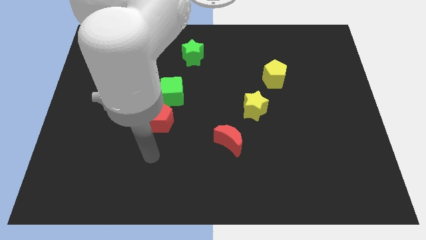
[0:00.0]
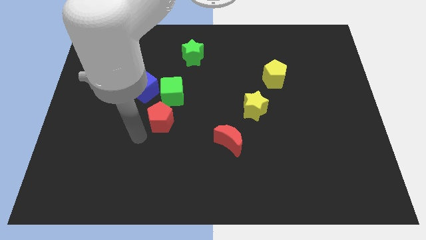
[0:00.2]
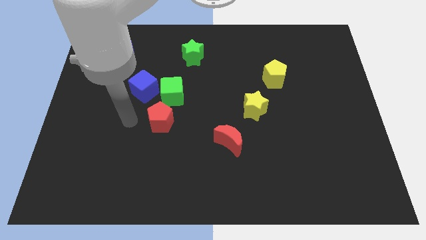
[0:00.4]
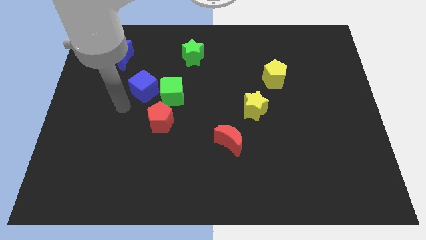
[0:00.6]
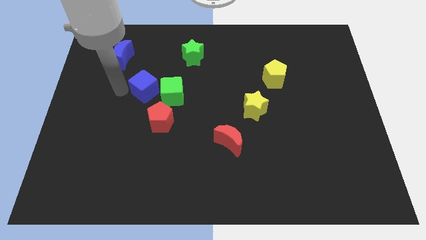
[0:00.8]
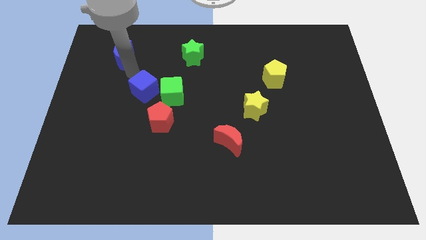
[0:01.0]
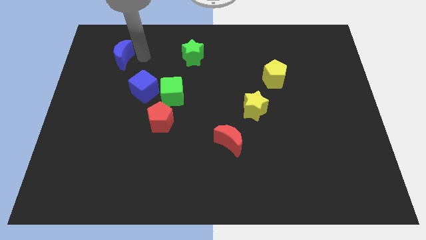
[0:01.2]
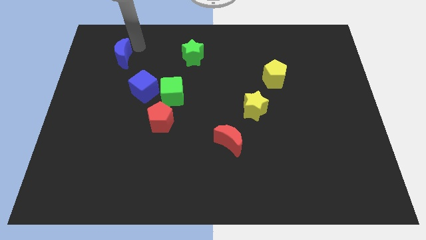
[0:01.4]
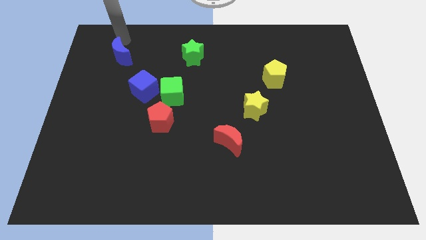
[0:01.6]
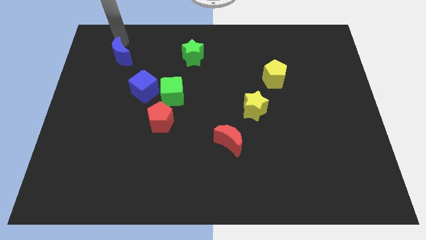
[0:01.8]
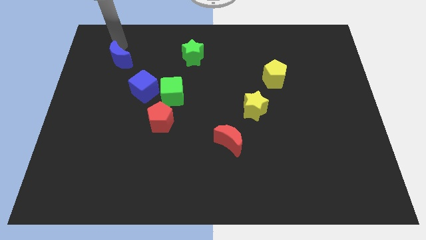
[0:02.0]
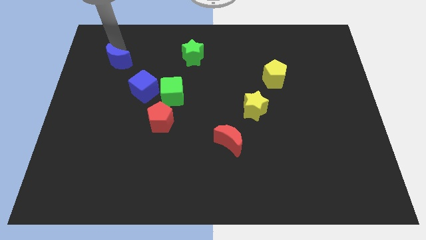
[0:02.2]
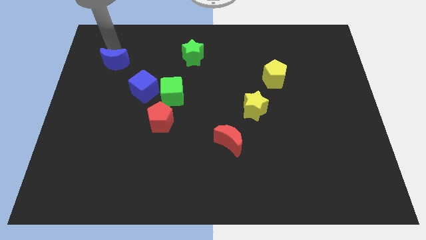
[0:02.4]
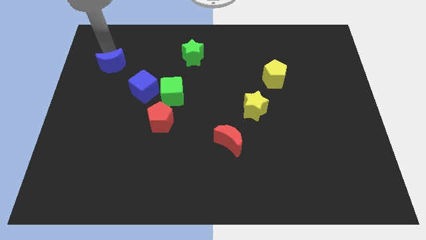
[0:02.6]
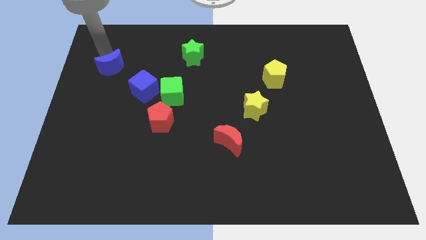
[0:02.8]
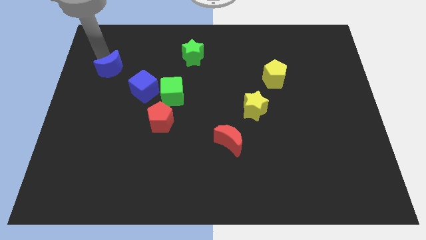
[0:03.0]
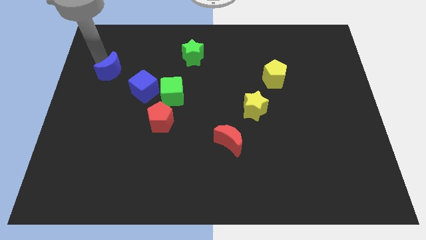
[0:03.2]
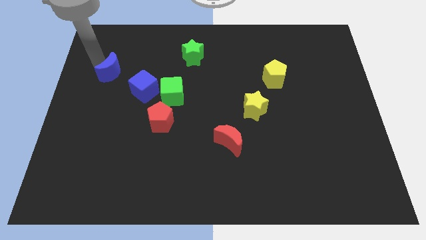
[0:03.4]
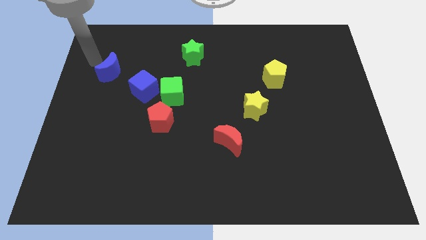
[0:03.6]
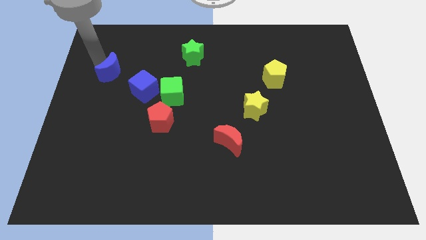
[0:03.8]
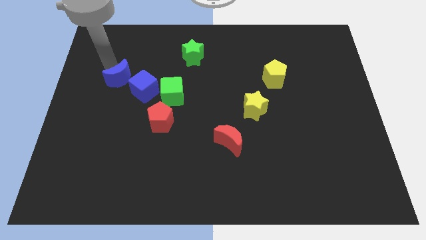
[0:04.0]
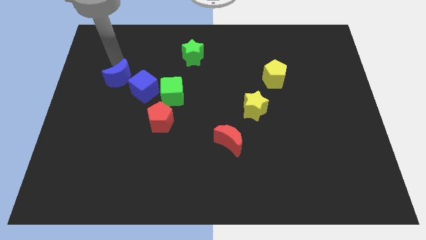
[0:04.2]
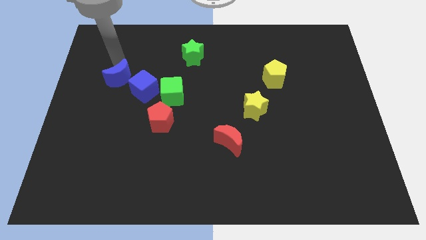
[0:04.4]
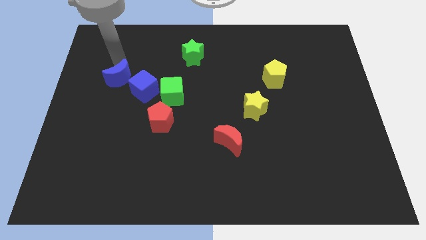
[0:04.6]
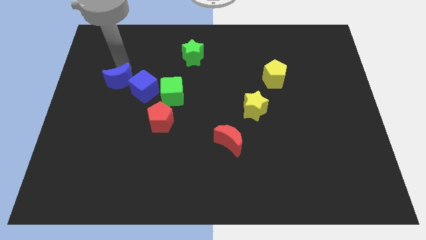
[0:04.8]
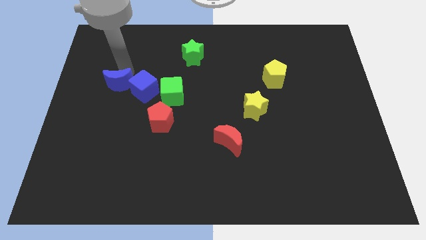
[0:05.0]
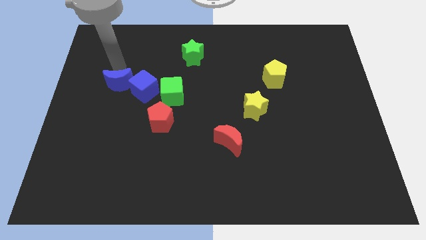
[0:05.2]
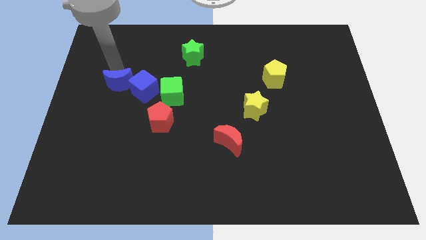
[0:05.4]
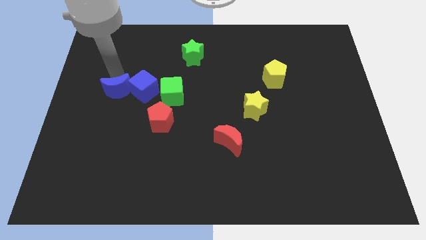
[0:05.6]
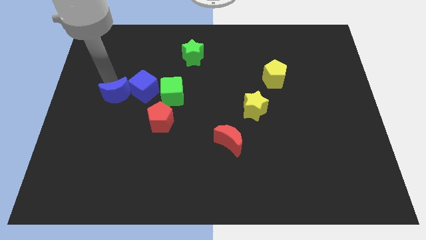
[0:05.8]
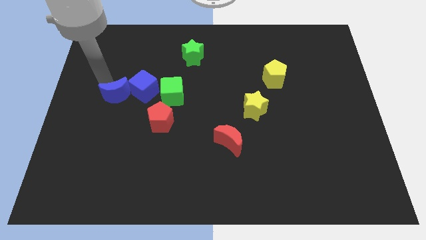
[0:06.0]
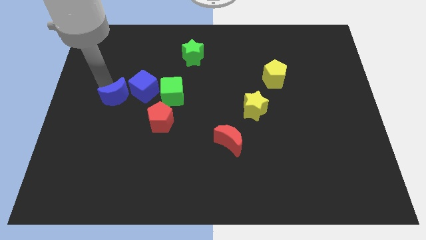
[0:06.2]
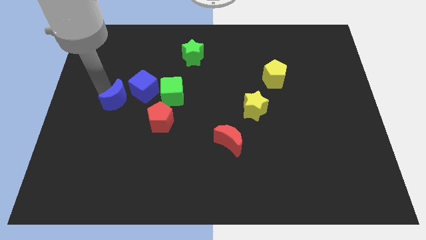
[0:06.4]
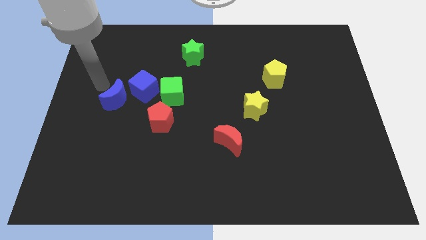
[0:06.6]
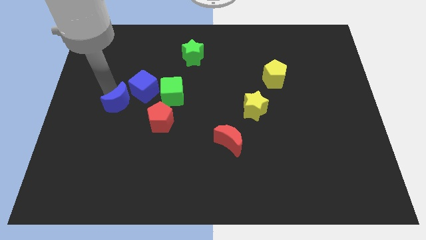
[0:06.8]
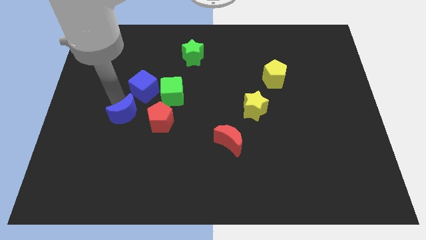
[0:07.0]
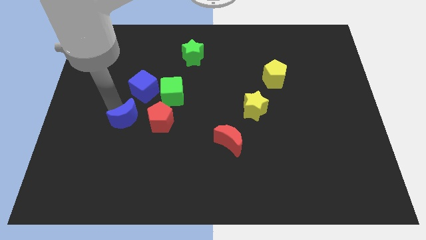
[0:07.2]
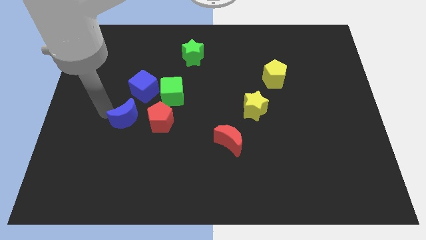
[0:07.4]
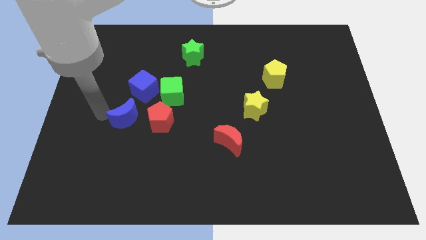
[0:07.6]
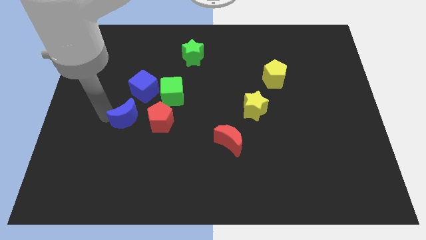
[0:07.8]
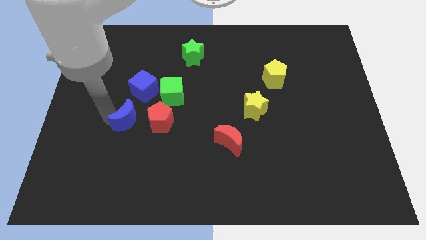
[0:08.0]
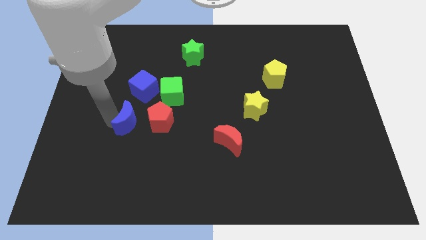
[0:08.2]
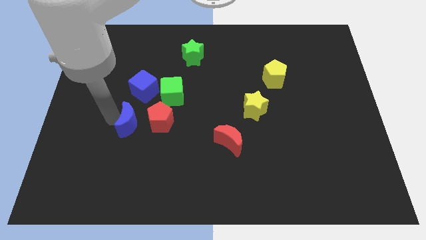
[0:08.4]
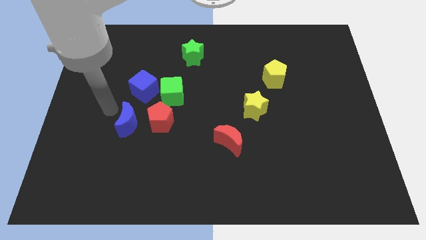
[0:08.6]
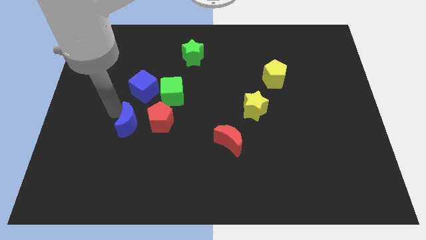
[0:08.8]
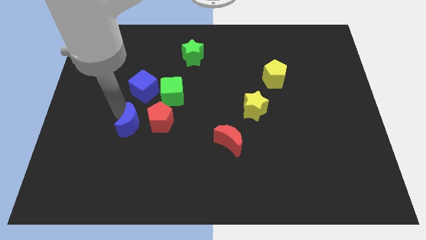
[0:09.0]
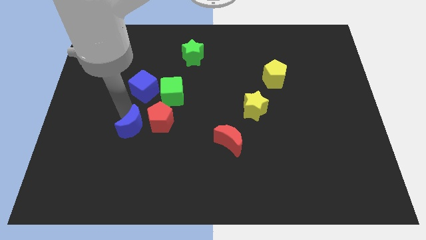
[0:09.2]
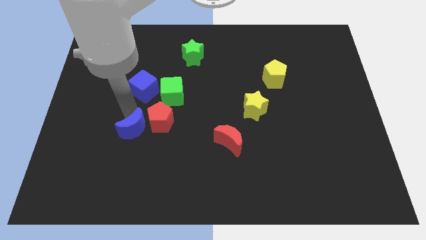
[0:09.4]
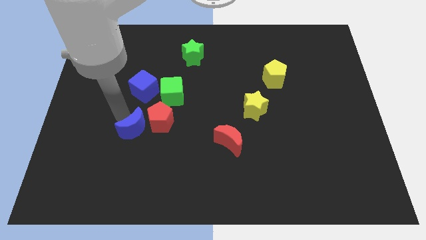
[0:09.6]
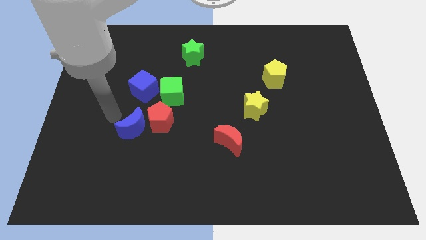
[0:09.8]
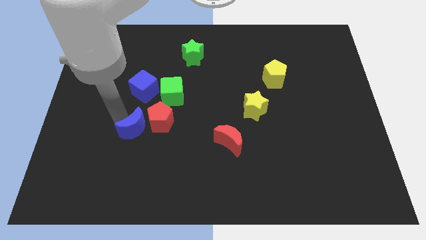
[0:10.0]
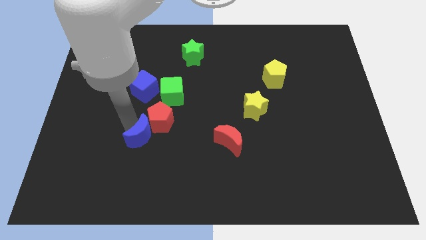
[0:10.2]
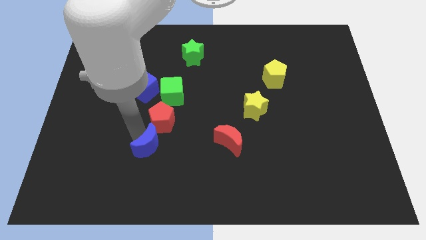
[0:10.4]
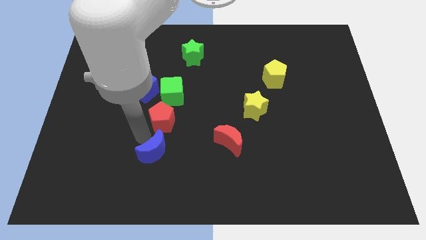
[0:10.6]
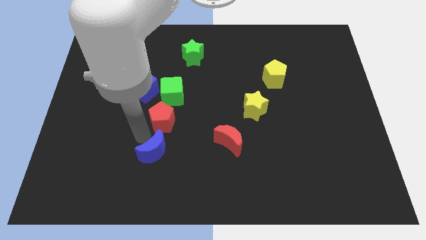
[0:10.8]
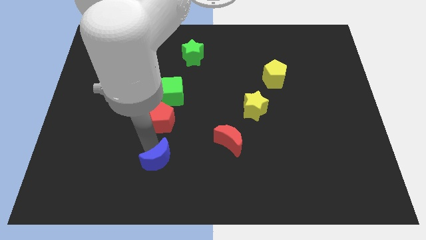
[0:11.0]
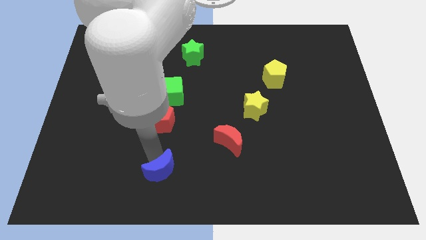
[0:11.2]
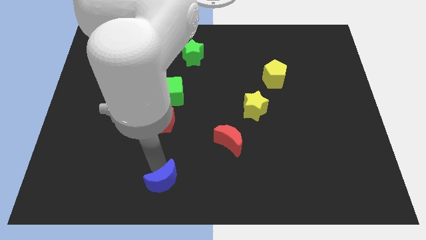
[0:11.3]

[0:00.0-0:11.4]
move the blue moon to the bottom side

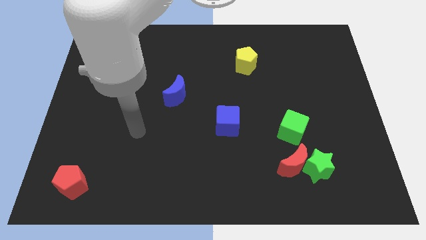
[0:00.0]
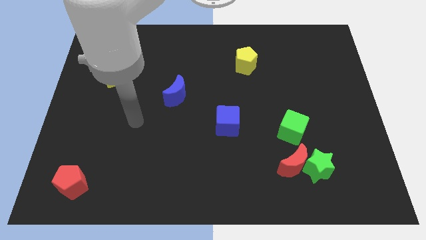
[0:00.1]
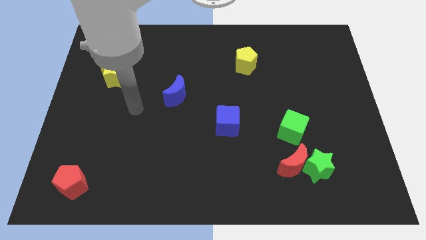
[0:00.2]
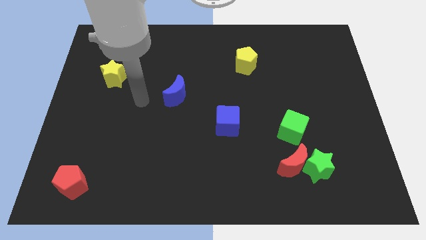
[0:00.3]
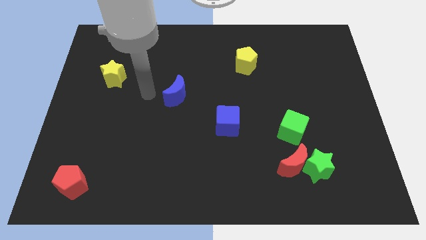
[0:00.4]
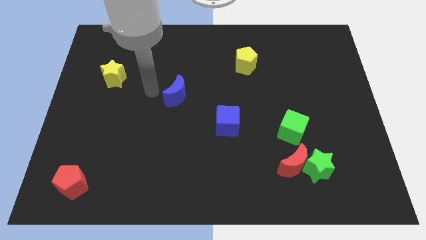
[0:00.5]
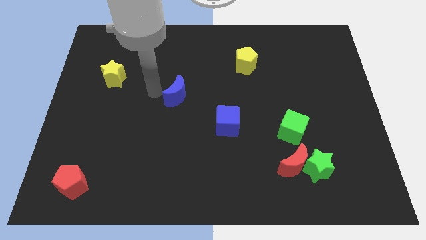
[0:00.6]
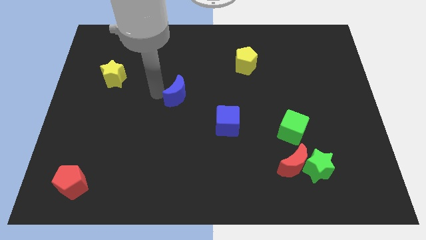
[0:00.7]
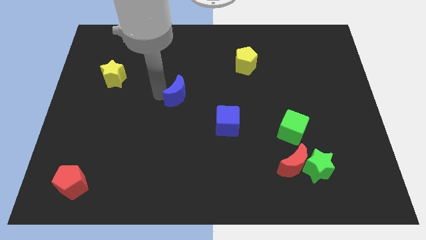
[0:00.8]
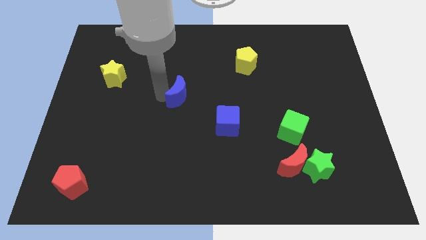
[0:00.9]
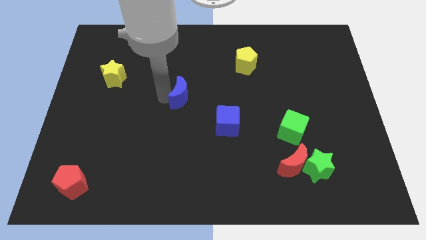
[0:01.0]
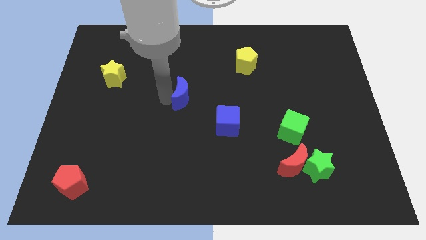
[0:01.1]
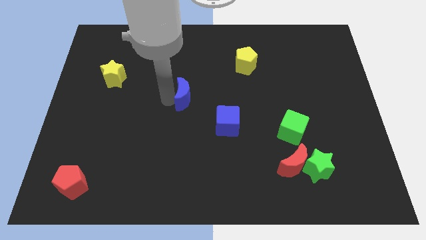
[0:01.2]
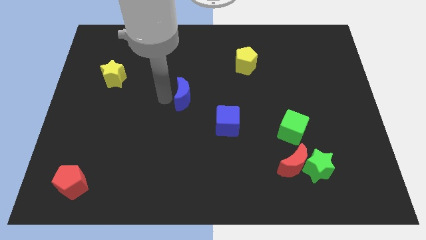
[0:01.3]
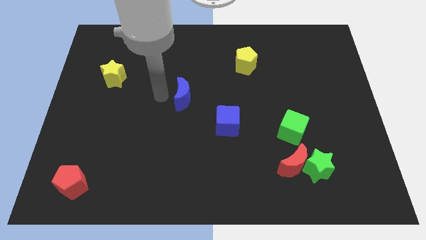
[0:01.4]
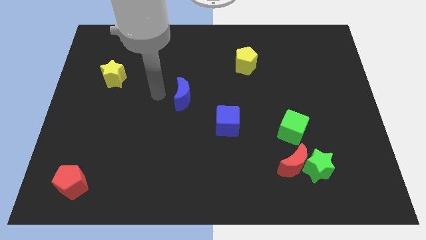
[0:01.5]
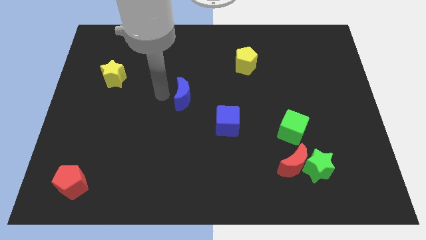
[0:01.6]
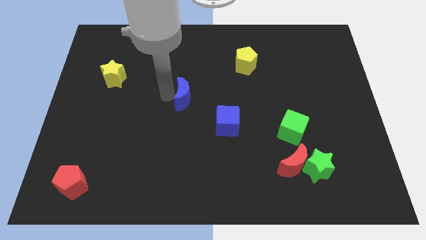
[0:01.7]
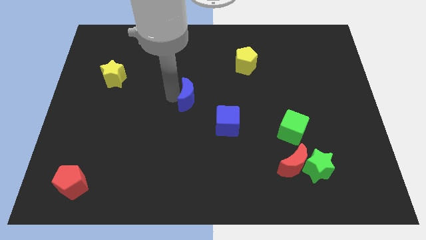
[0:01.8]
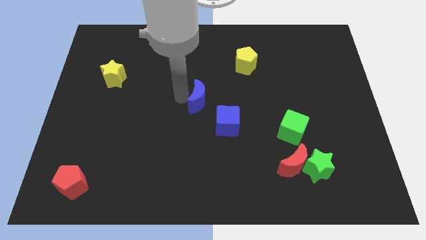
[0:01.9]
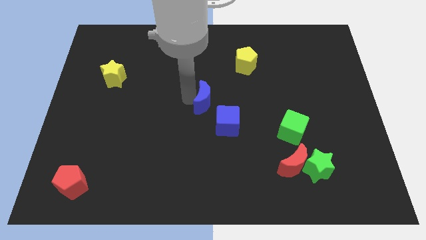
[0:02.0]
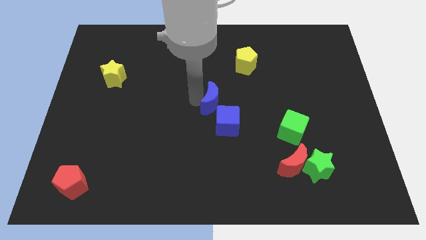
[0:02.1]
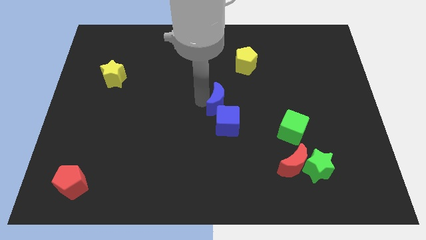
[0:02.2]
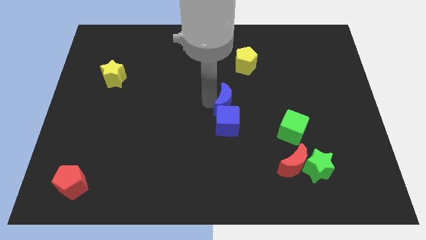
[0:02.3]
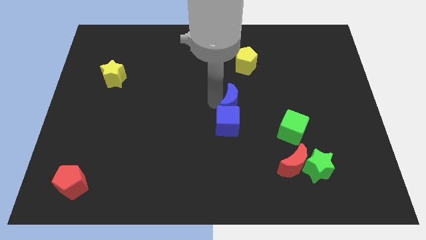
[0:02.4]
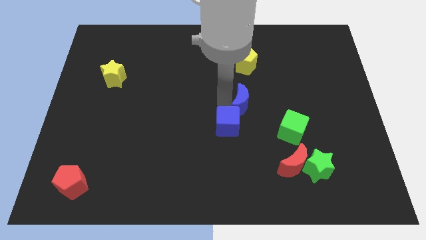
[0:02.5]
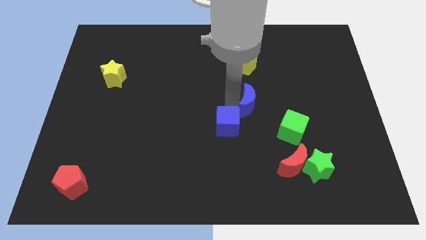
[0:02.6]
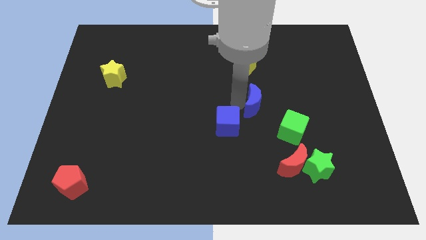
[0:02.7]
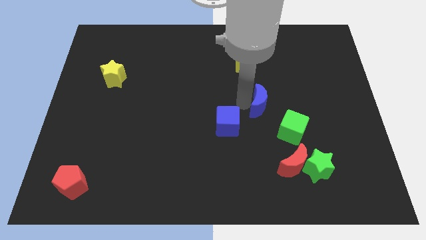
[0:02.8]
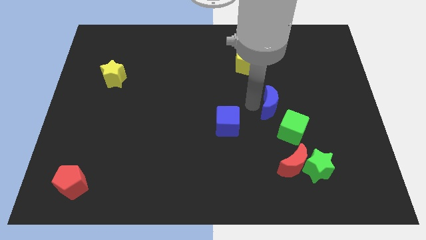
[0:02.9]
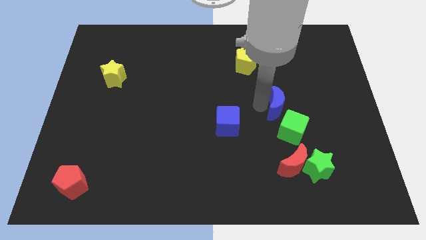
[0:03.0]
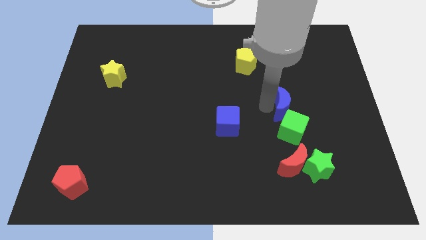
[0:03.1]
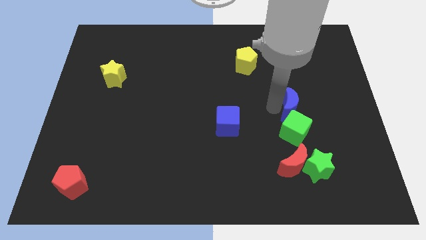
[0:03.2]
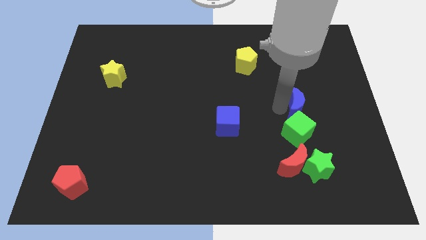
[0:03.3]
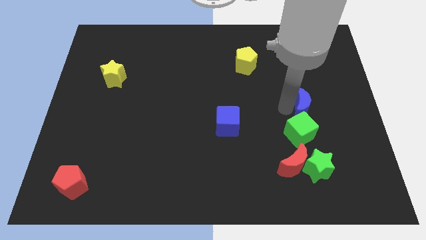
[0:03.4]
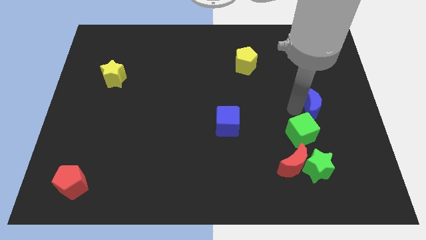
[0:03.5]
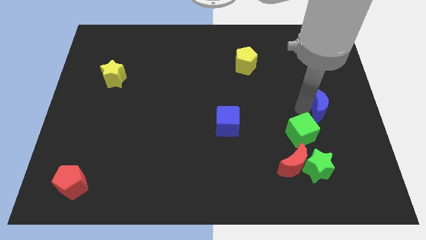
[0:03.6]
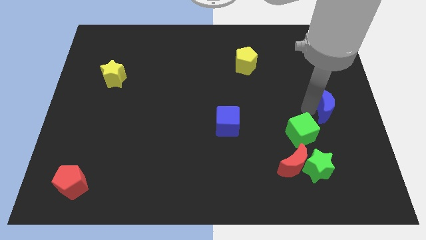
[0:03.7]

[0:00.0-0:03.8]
push the blue moon to the right side of the board
